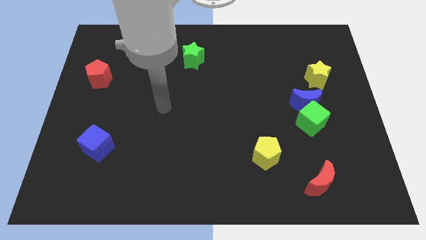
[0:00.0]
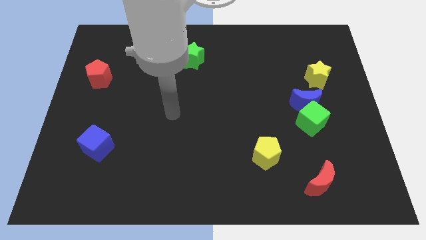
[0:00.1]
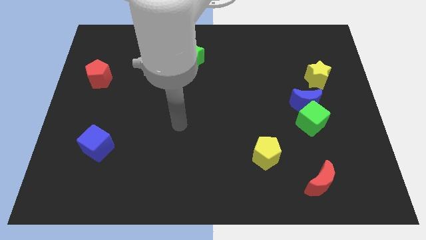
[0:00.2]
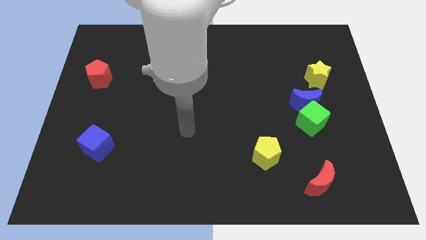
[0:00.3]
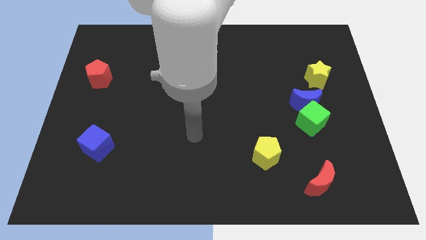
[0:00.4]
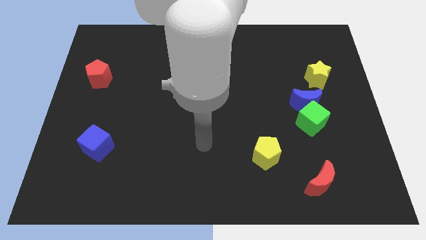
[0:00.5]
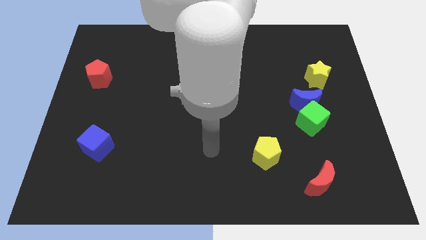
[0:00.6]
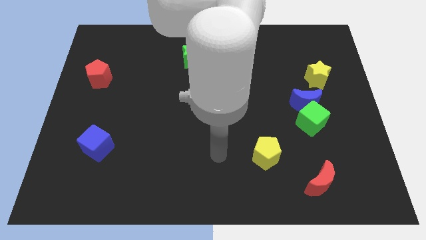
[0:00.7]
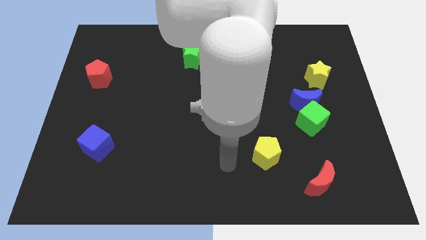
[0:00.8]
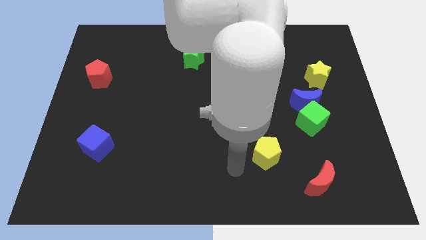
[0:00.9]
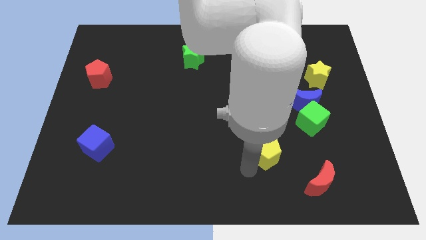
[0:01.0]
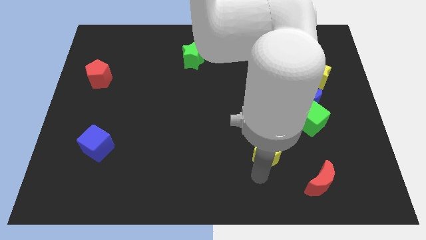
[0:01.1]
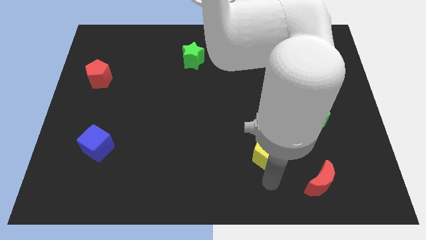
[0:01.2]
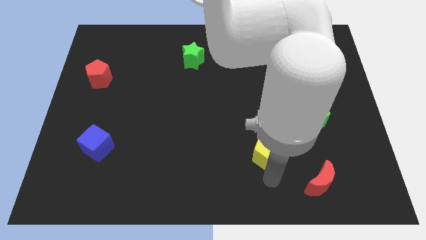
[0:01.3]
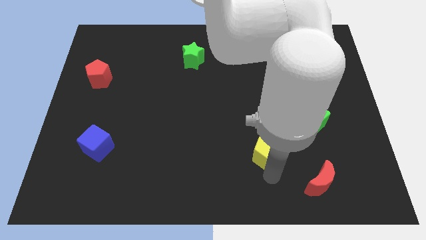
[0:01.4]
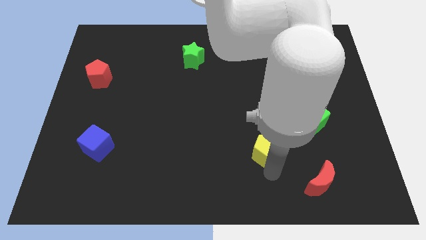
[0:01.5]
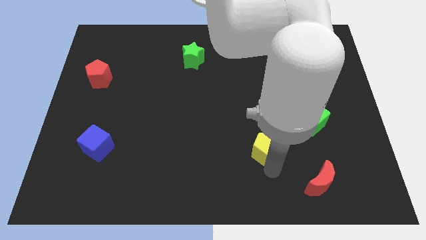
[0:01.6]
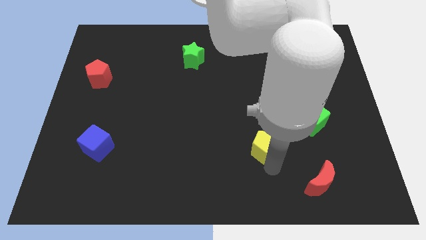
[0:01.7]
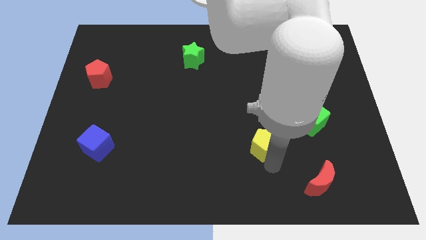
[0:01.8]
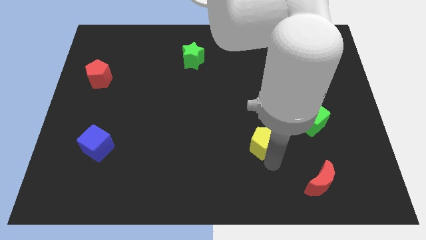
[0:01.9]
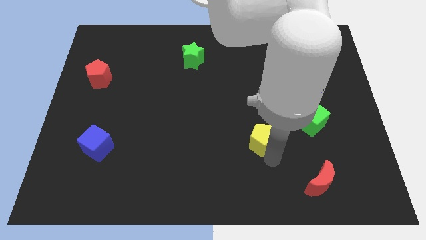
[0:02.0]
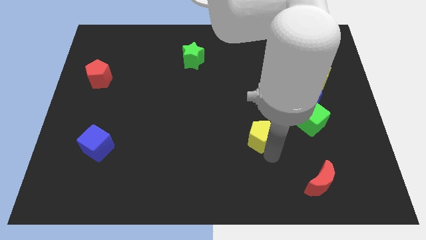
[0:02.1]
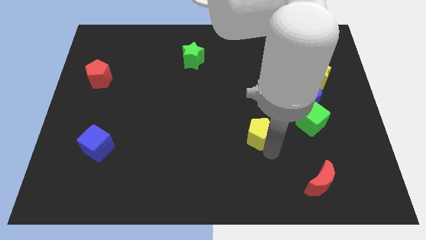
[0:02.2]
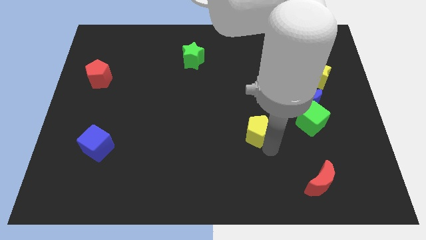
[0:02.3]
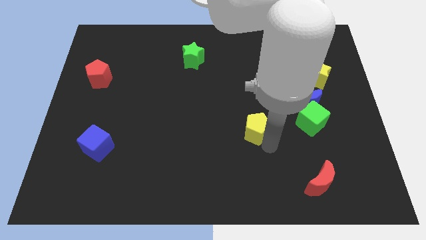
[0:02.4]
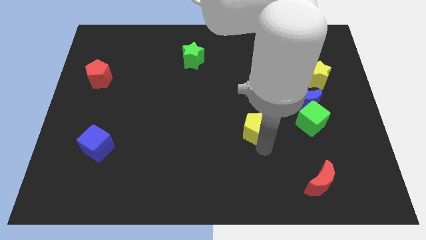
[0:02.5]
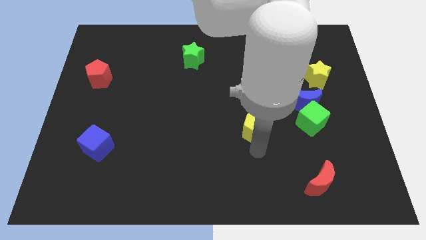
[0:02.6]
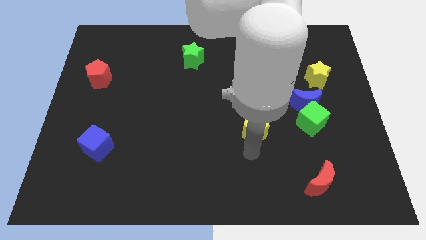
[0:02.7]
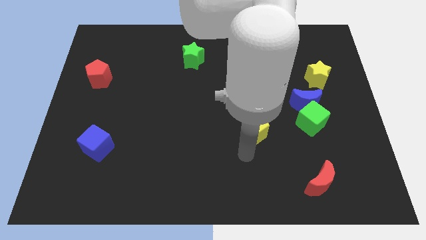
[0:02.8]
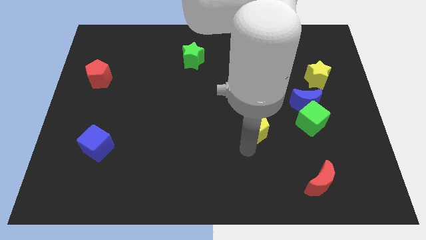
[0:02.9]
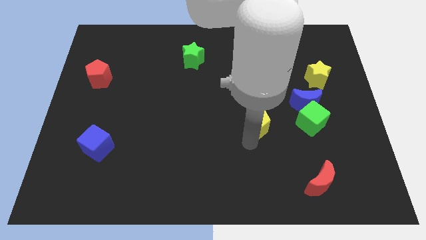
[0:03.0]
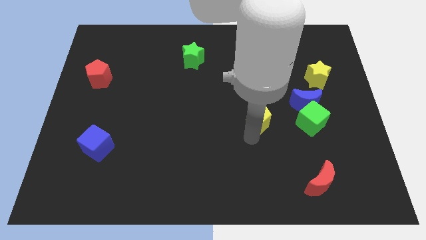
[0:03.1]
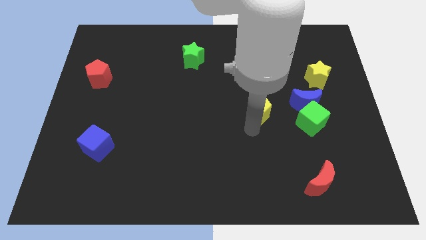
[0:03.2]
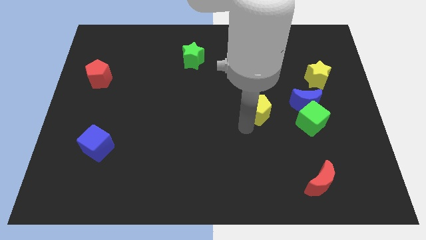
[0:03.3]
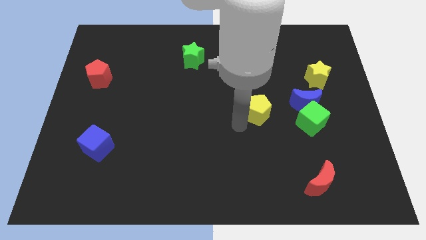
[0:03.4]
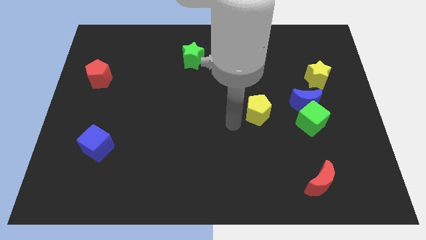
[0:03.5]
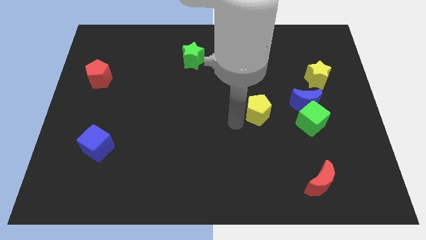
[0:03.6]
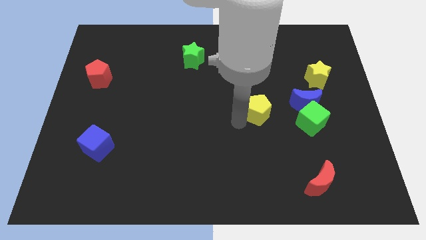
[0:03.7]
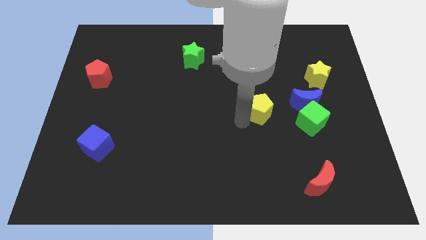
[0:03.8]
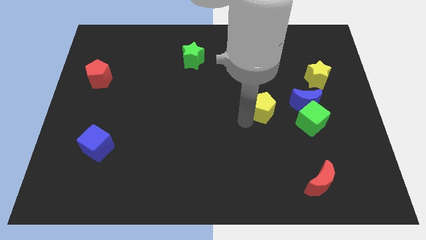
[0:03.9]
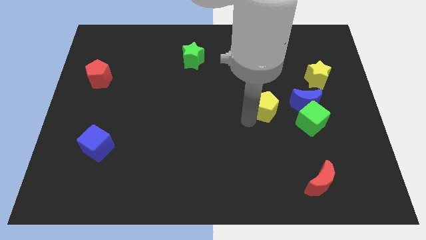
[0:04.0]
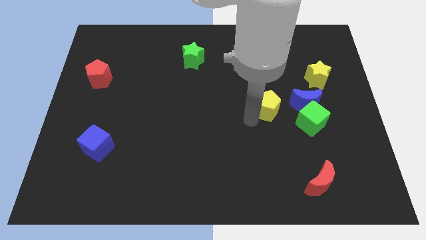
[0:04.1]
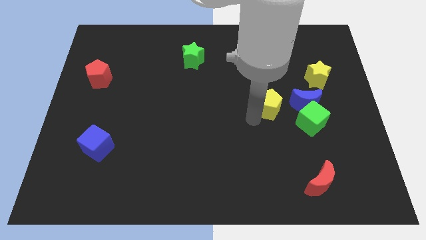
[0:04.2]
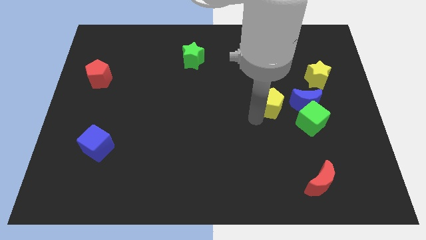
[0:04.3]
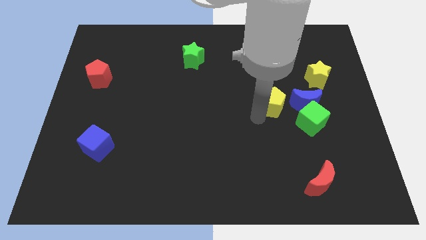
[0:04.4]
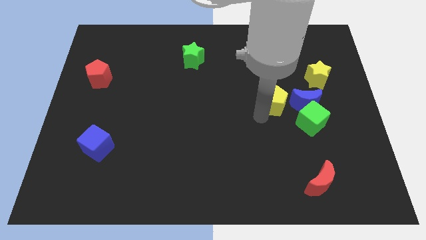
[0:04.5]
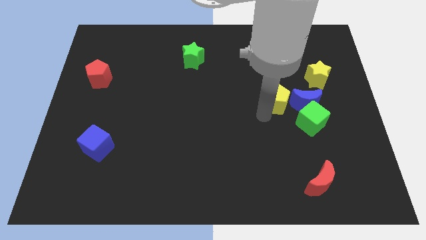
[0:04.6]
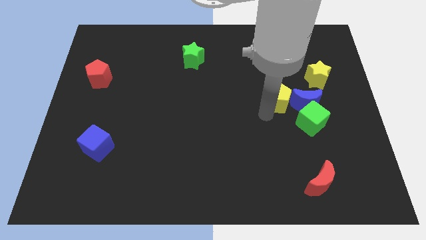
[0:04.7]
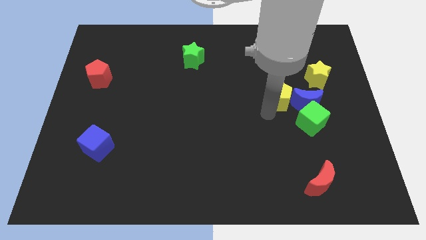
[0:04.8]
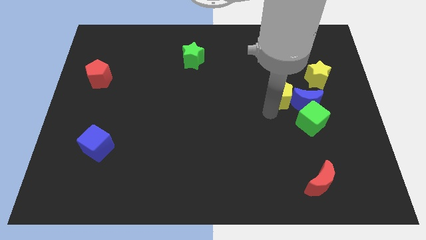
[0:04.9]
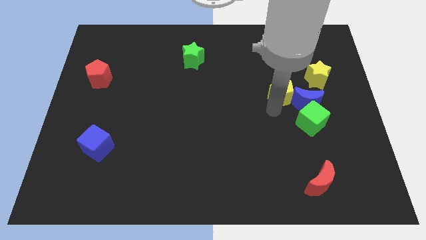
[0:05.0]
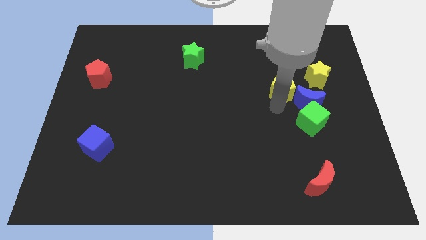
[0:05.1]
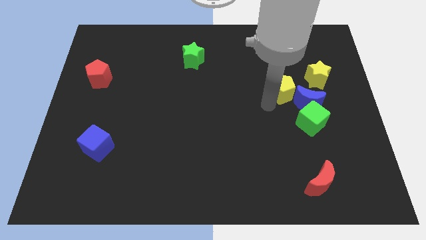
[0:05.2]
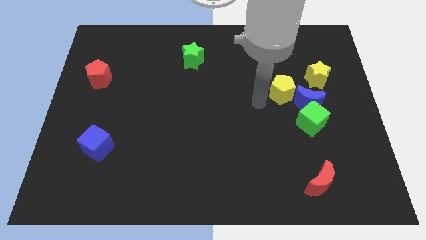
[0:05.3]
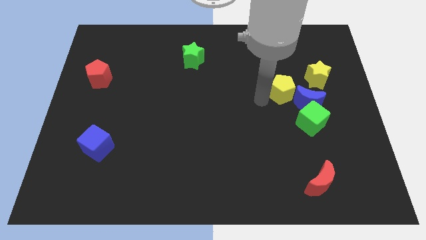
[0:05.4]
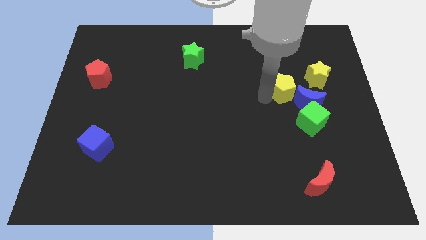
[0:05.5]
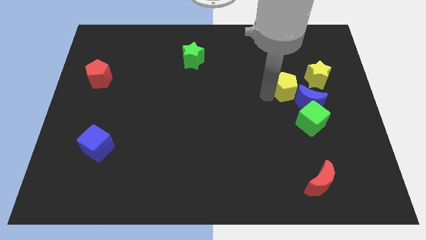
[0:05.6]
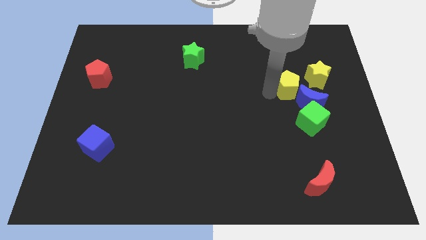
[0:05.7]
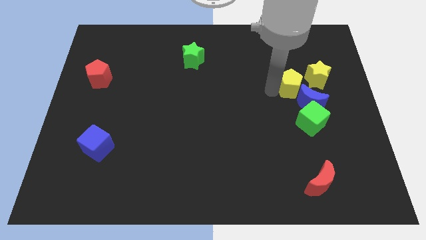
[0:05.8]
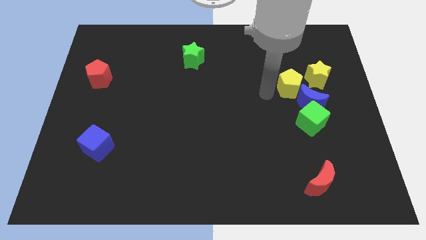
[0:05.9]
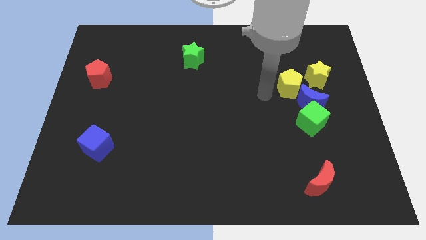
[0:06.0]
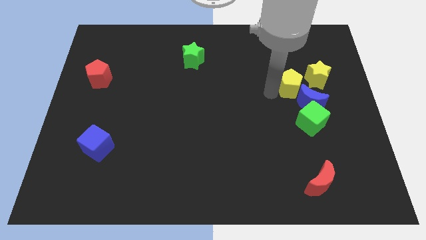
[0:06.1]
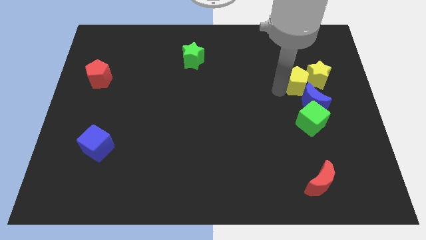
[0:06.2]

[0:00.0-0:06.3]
push the yellow pentagon to the yellow star

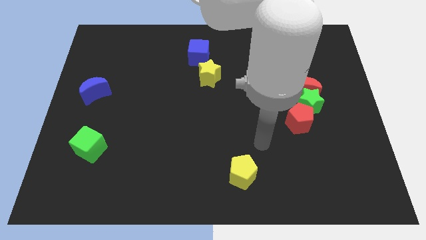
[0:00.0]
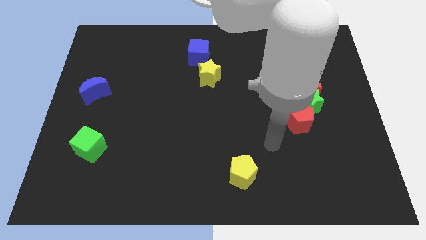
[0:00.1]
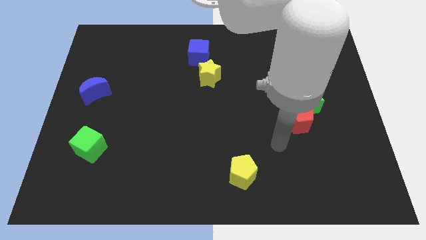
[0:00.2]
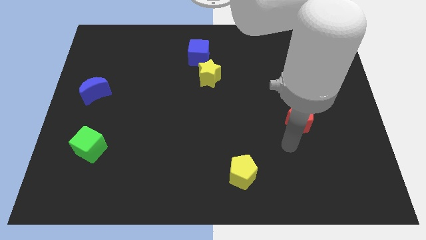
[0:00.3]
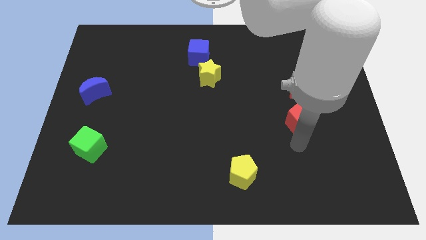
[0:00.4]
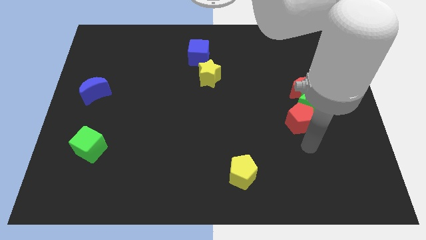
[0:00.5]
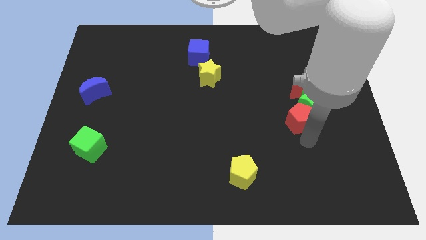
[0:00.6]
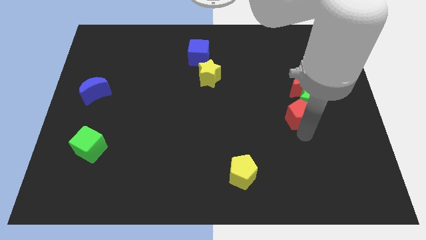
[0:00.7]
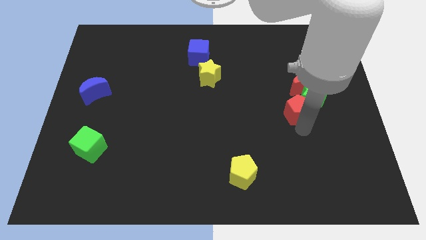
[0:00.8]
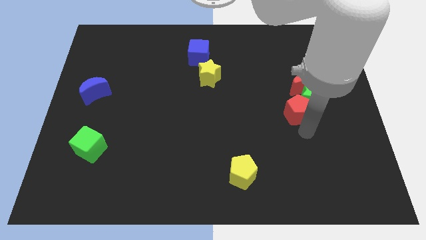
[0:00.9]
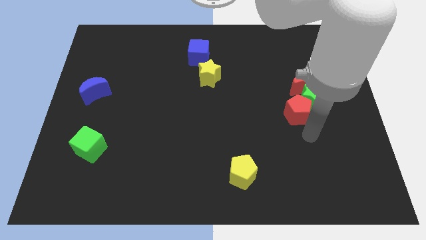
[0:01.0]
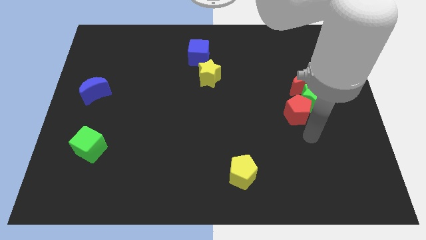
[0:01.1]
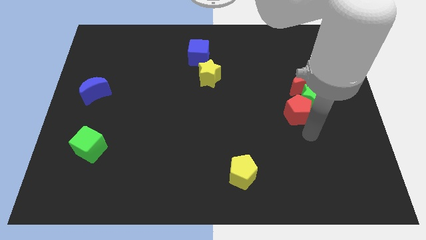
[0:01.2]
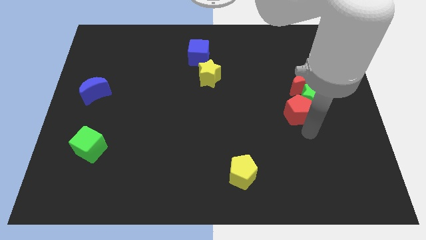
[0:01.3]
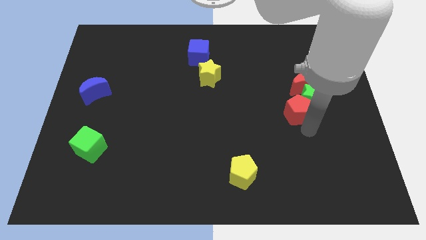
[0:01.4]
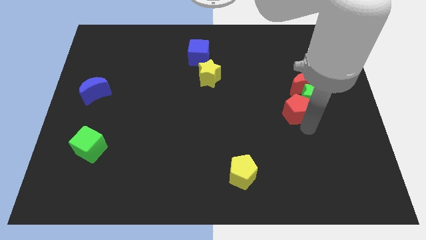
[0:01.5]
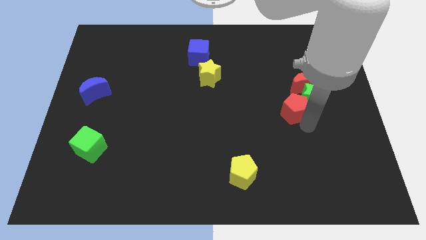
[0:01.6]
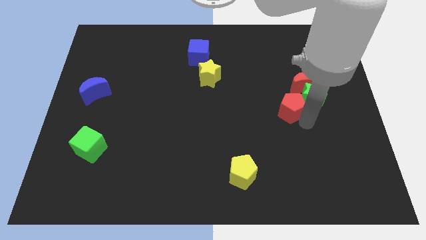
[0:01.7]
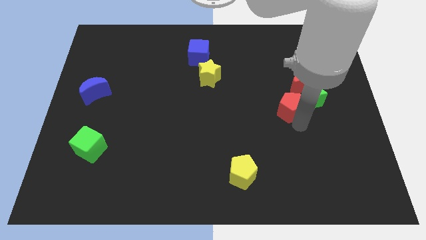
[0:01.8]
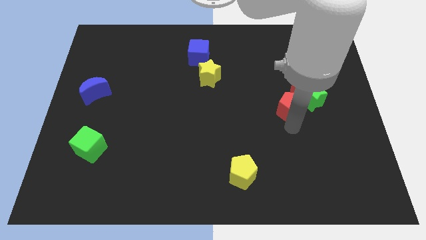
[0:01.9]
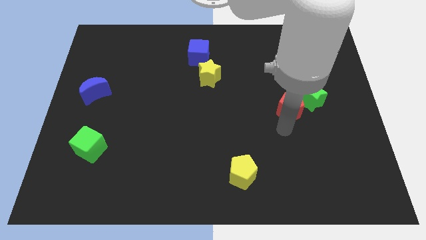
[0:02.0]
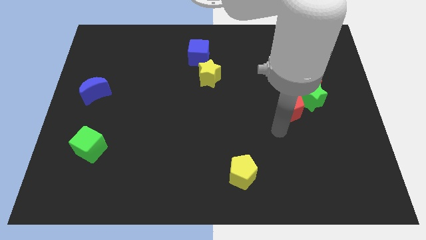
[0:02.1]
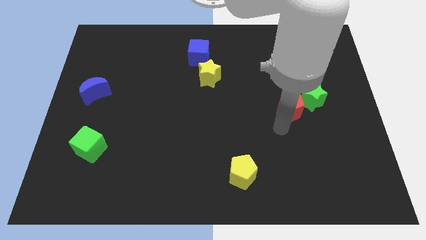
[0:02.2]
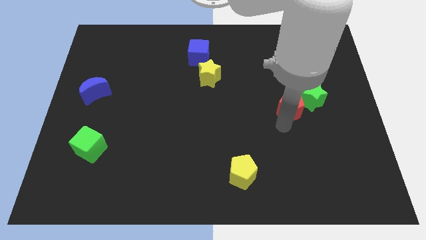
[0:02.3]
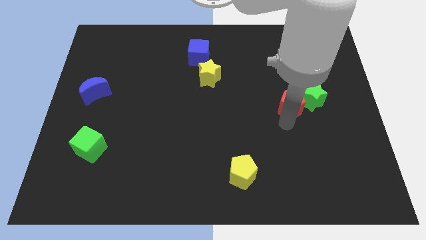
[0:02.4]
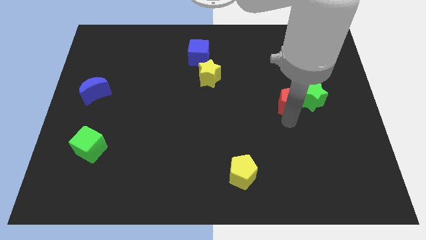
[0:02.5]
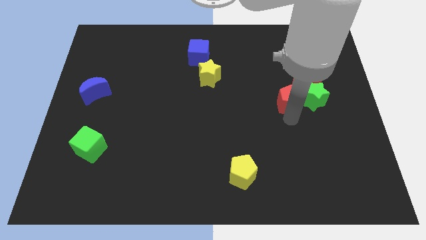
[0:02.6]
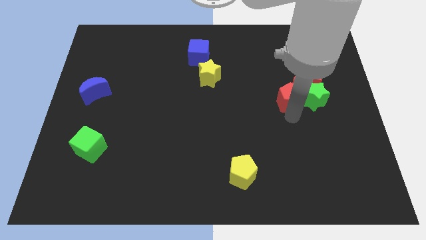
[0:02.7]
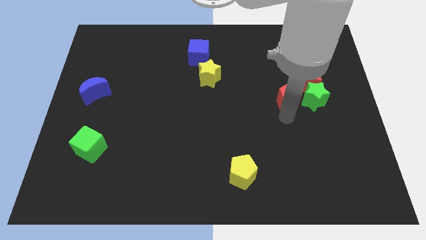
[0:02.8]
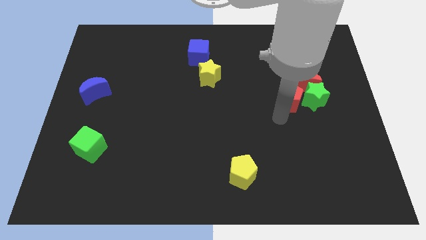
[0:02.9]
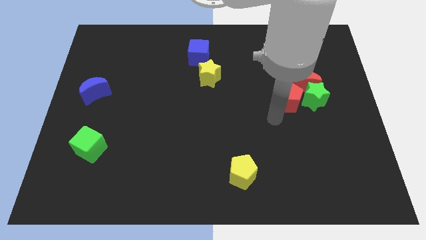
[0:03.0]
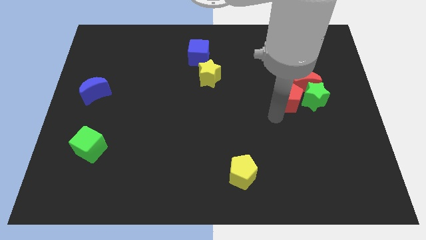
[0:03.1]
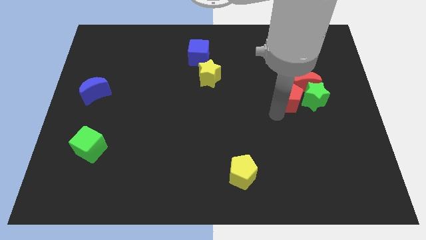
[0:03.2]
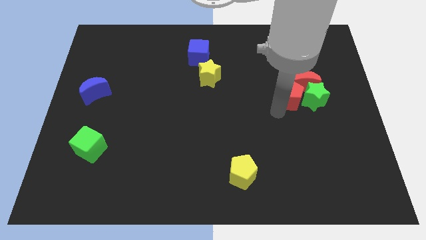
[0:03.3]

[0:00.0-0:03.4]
slide the red pentagon towards the red moon
